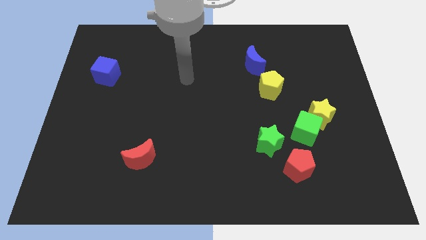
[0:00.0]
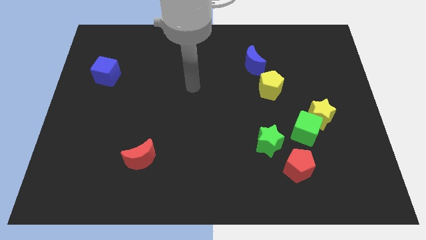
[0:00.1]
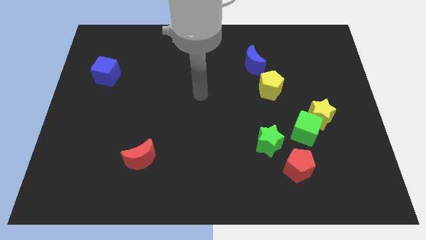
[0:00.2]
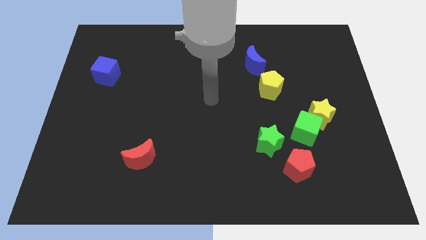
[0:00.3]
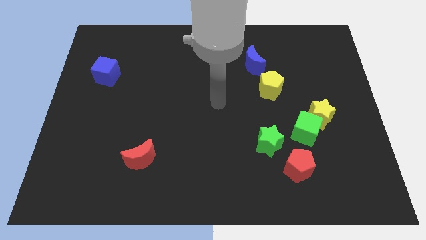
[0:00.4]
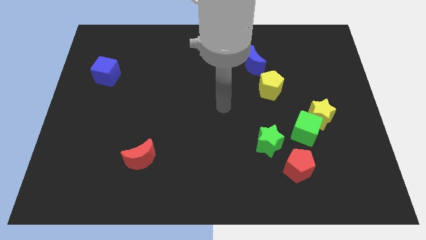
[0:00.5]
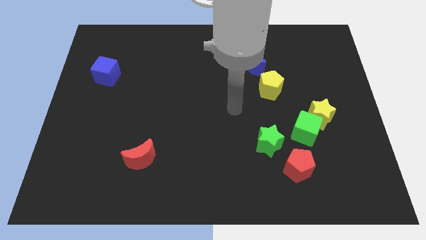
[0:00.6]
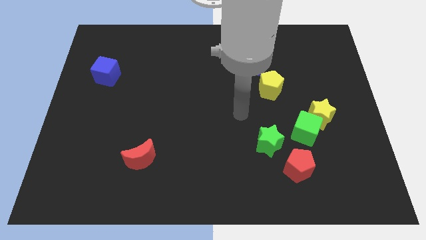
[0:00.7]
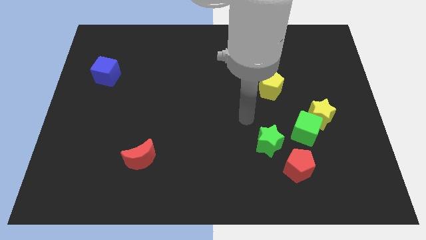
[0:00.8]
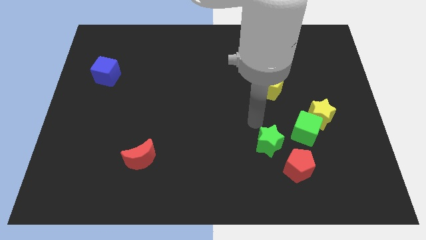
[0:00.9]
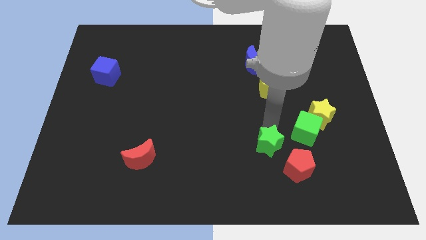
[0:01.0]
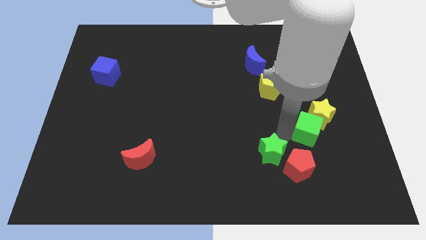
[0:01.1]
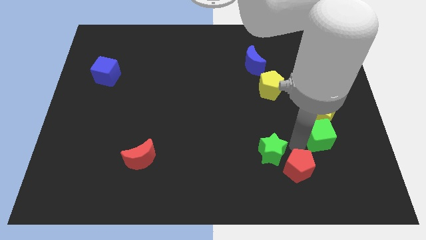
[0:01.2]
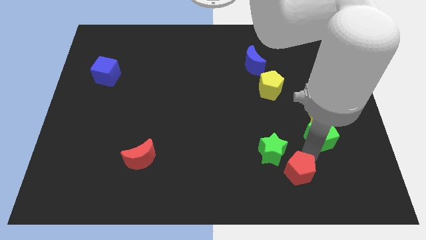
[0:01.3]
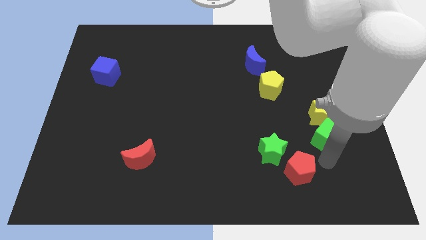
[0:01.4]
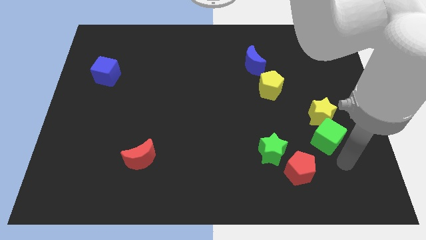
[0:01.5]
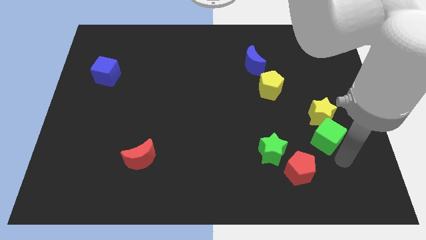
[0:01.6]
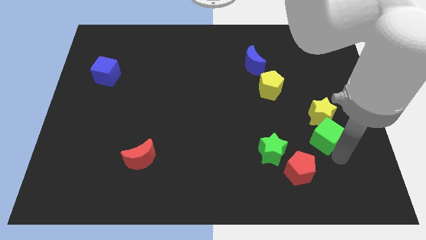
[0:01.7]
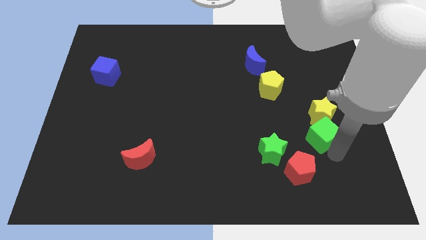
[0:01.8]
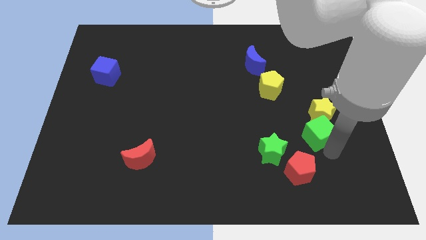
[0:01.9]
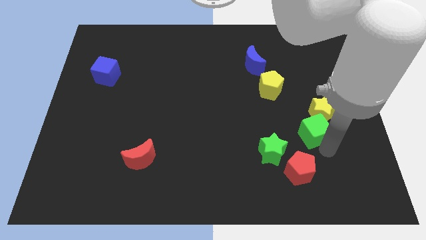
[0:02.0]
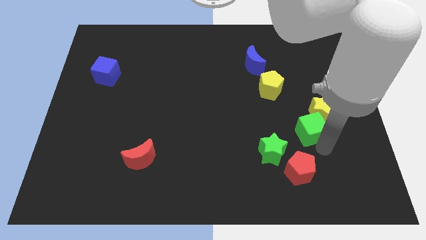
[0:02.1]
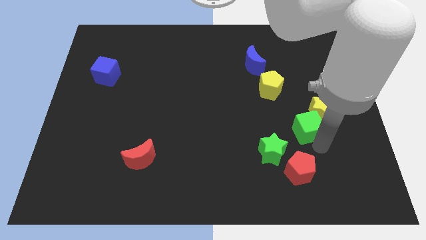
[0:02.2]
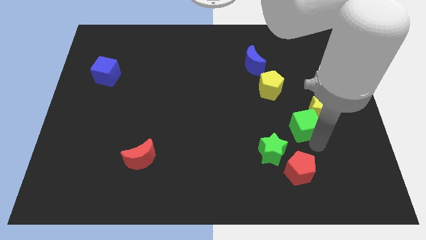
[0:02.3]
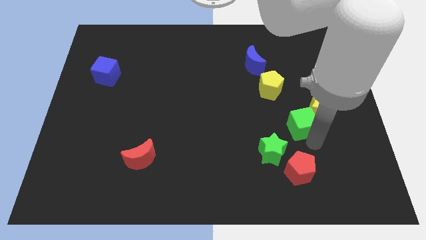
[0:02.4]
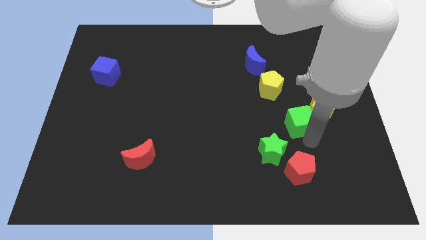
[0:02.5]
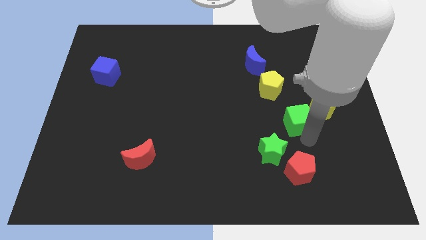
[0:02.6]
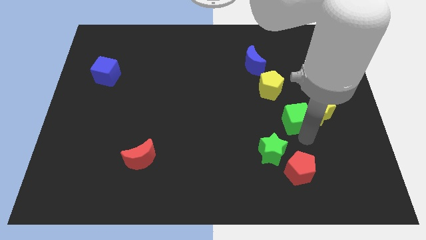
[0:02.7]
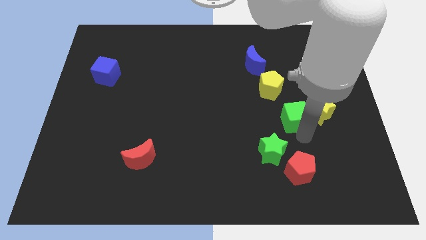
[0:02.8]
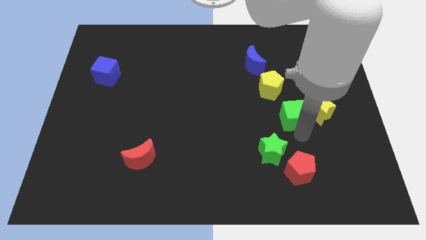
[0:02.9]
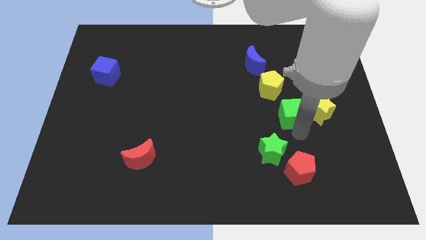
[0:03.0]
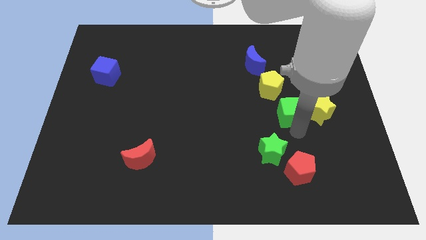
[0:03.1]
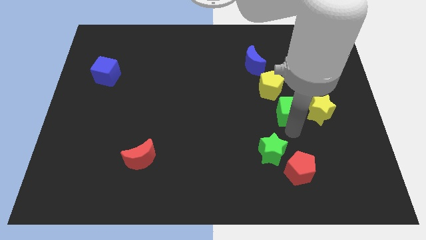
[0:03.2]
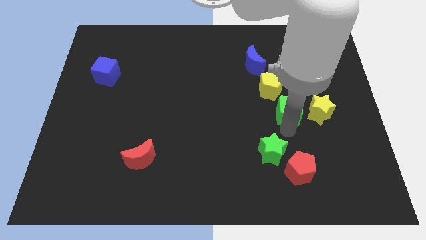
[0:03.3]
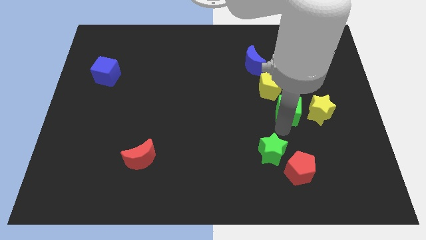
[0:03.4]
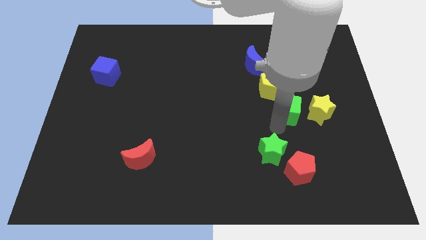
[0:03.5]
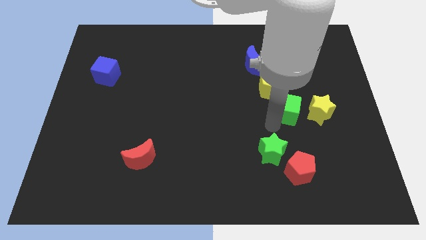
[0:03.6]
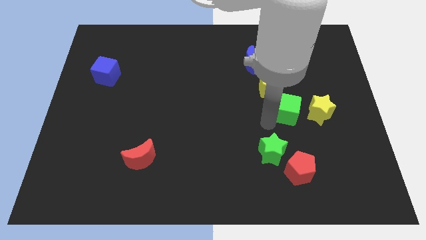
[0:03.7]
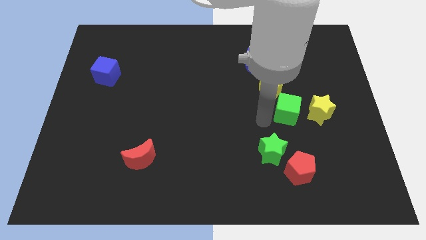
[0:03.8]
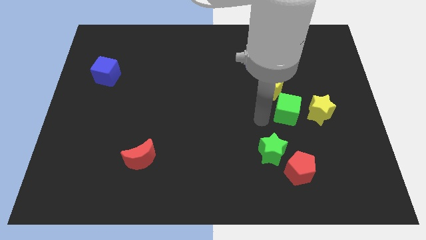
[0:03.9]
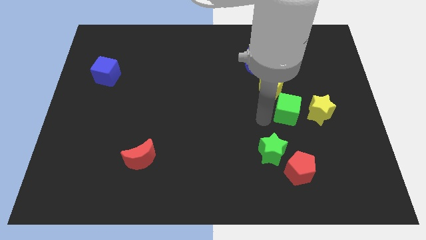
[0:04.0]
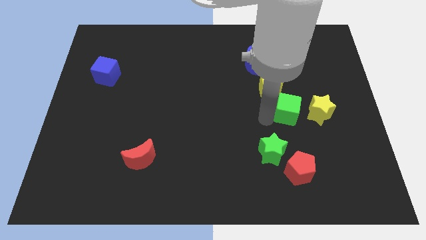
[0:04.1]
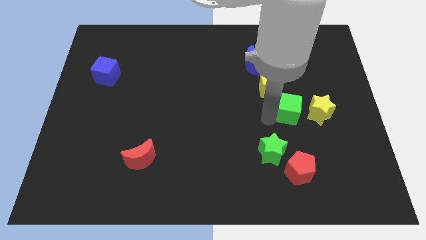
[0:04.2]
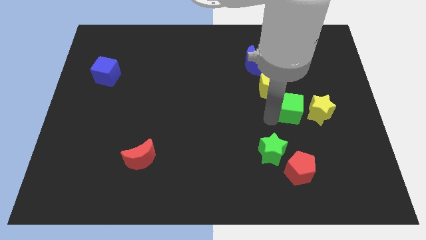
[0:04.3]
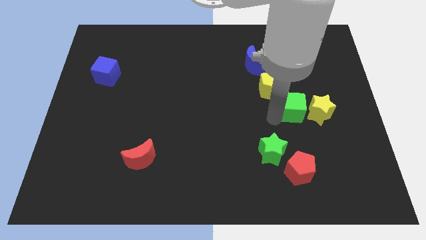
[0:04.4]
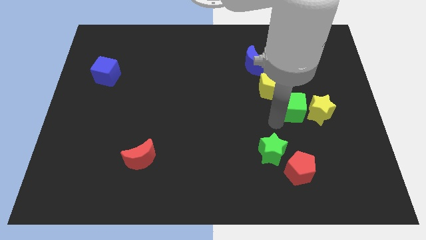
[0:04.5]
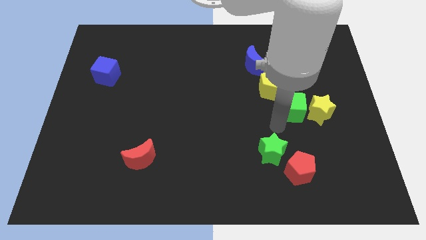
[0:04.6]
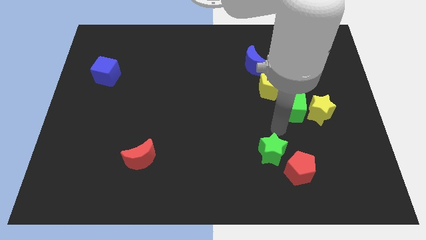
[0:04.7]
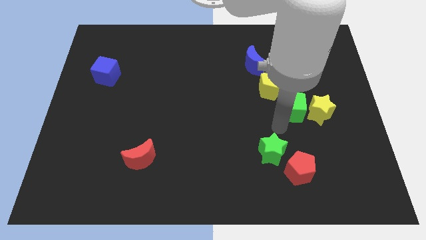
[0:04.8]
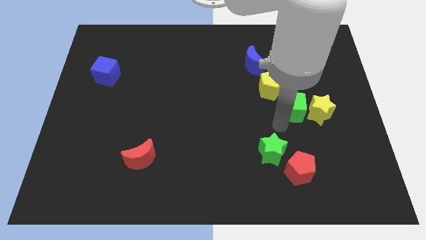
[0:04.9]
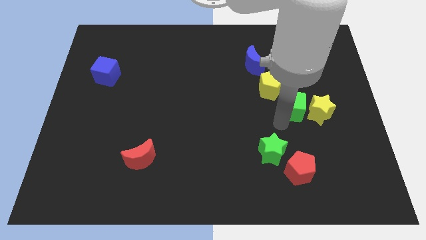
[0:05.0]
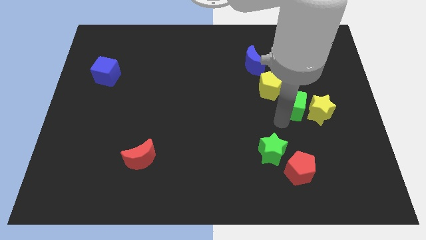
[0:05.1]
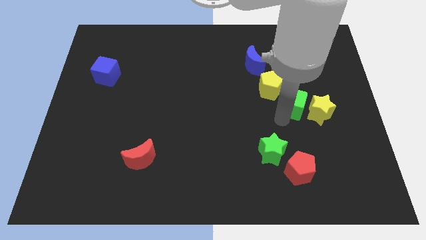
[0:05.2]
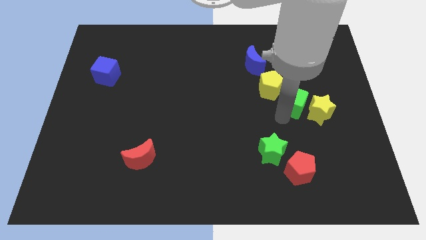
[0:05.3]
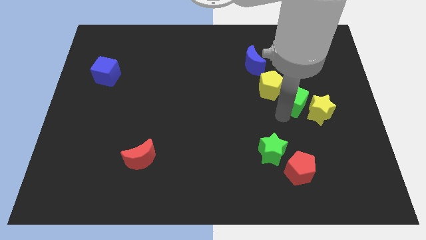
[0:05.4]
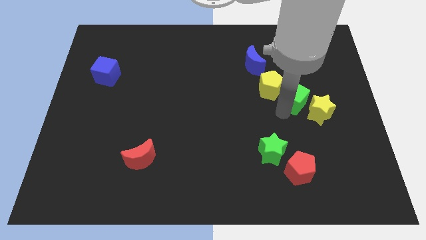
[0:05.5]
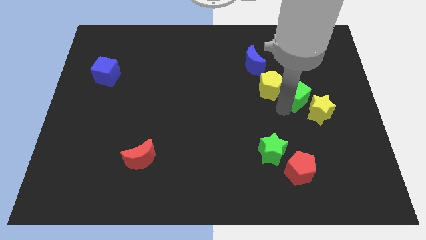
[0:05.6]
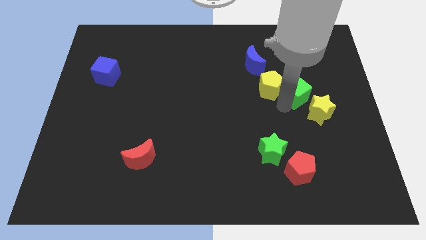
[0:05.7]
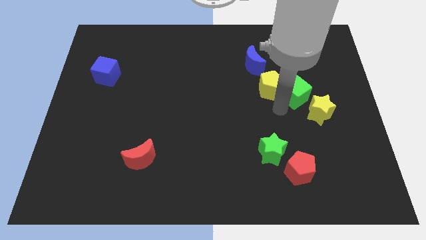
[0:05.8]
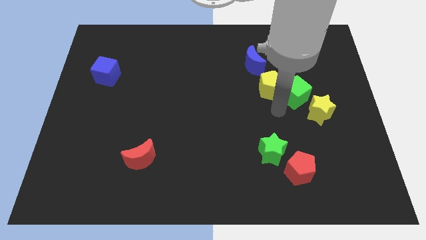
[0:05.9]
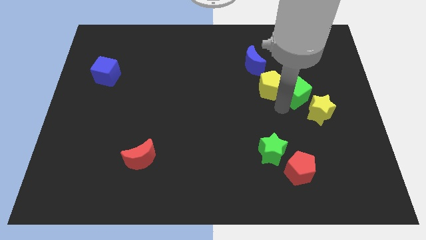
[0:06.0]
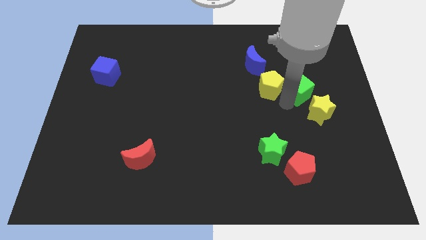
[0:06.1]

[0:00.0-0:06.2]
push the green cube above the yellow star

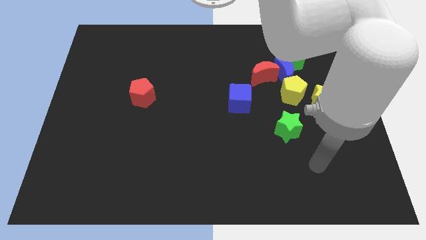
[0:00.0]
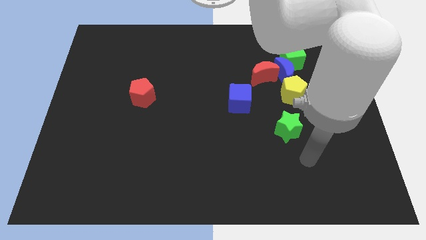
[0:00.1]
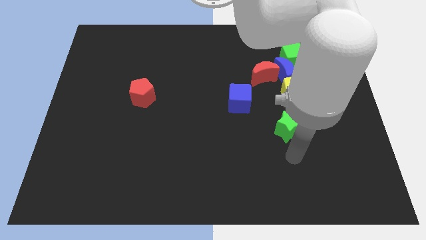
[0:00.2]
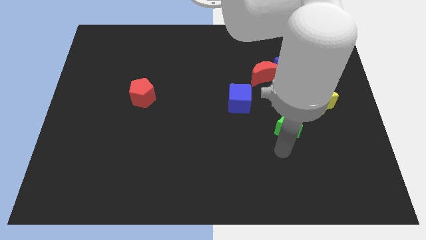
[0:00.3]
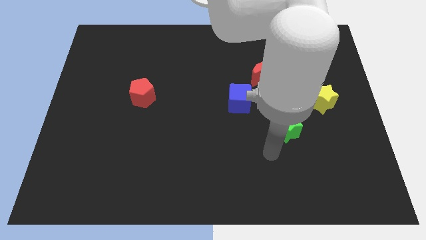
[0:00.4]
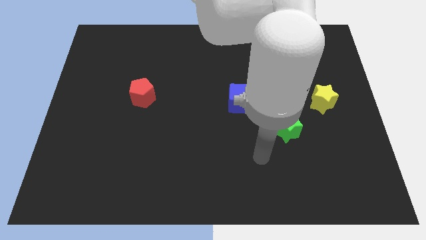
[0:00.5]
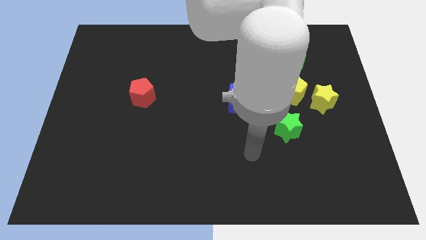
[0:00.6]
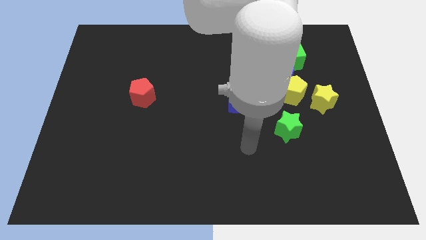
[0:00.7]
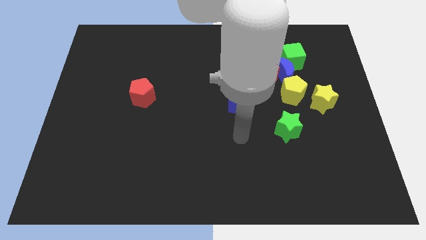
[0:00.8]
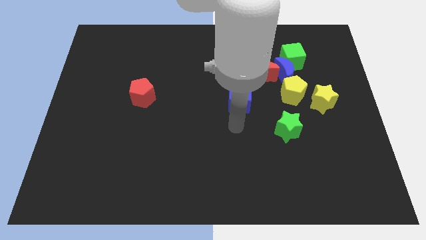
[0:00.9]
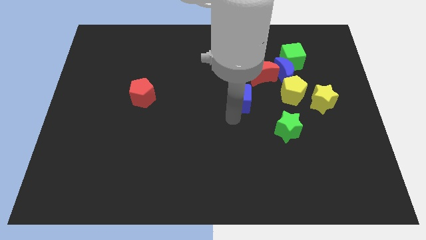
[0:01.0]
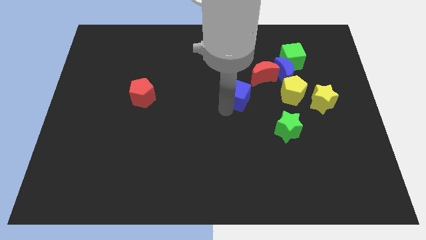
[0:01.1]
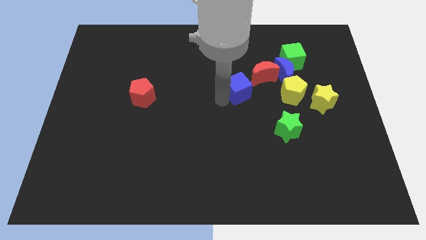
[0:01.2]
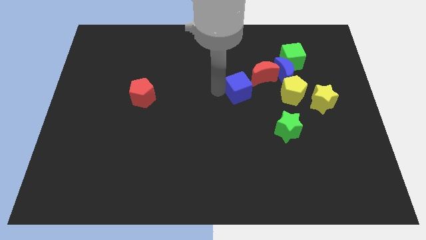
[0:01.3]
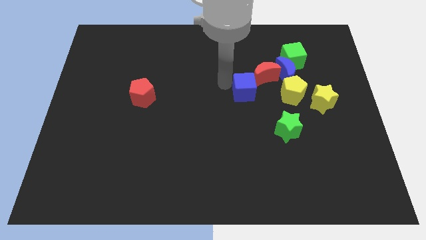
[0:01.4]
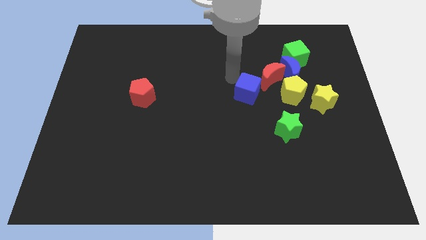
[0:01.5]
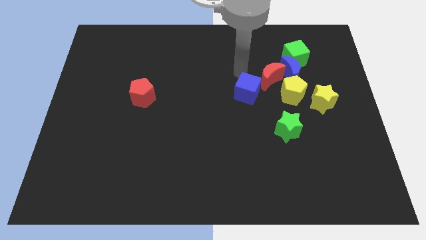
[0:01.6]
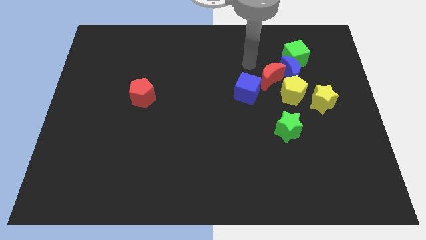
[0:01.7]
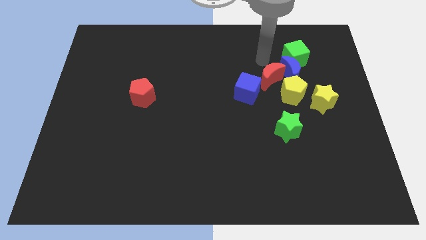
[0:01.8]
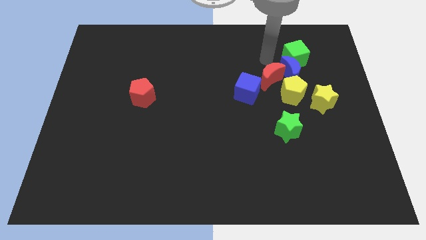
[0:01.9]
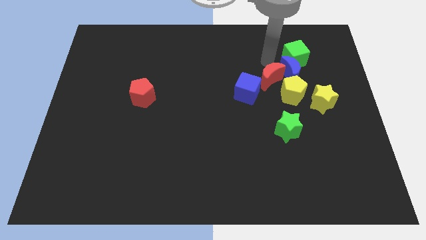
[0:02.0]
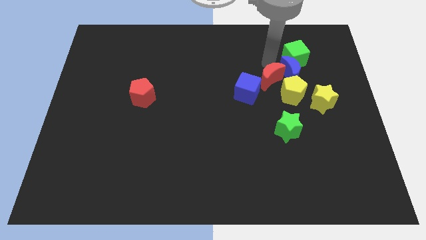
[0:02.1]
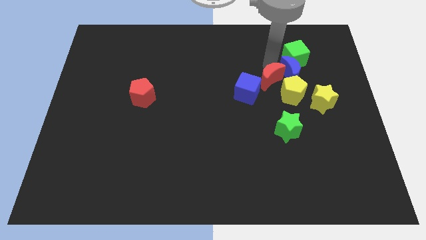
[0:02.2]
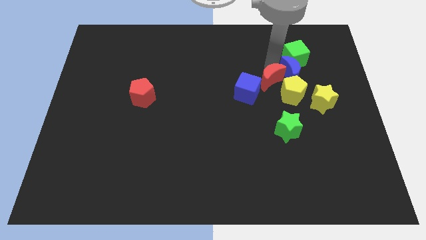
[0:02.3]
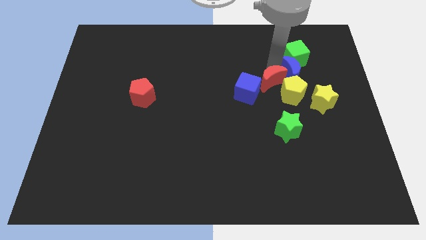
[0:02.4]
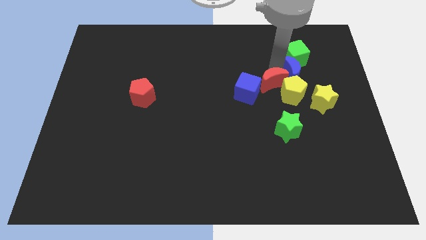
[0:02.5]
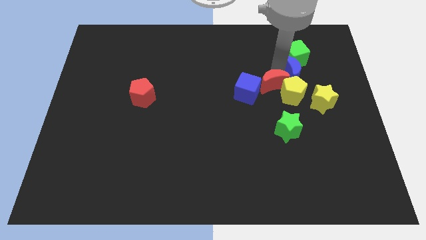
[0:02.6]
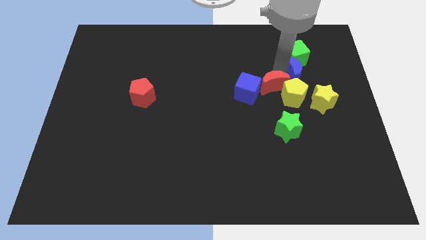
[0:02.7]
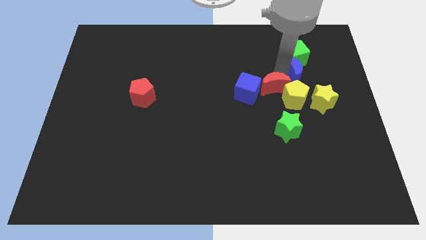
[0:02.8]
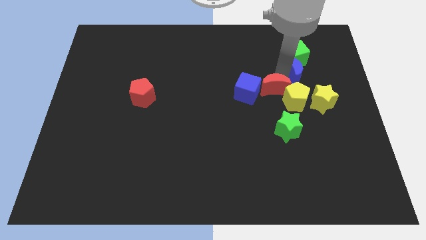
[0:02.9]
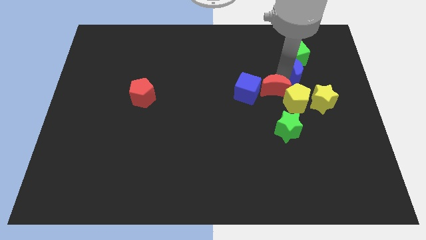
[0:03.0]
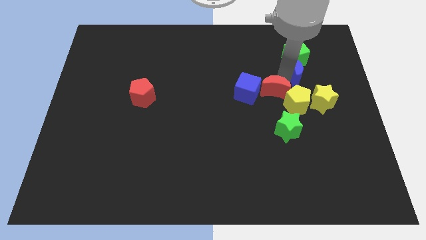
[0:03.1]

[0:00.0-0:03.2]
put the red moon to the bottom side of the blue moon
